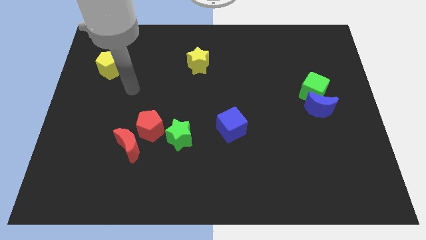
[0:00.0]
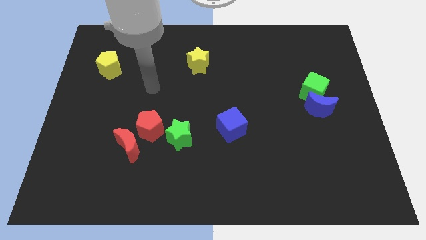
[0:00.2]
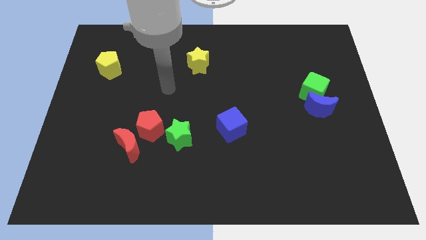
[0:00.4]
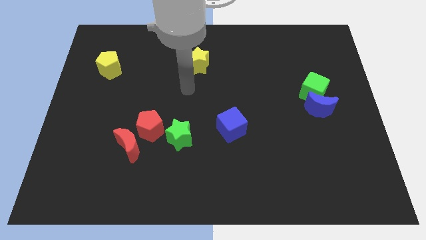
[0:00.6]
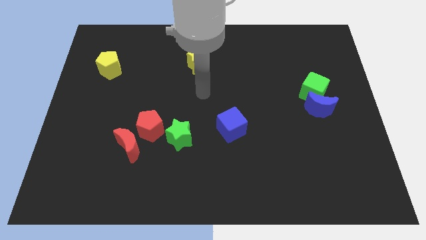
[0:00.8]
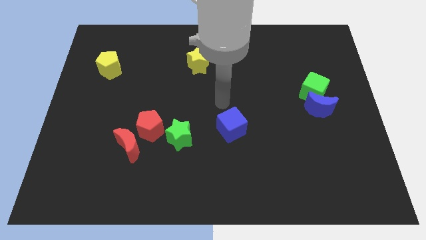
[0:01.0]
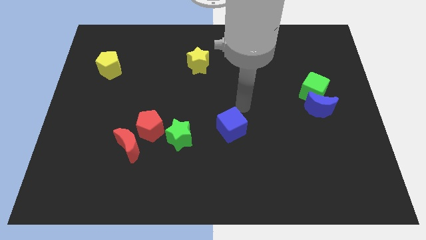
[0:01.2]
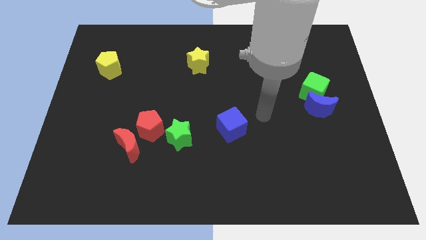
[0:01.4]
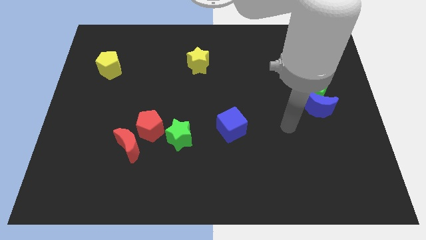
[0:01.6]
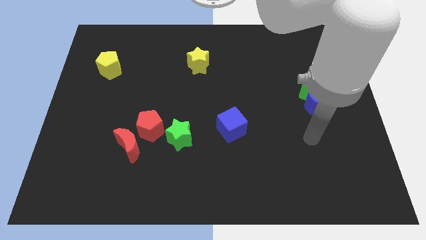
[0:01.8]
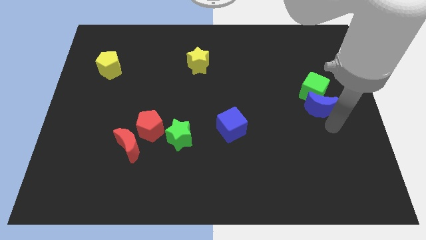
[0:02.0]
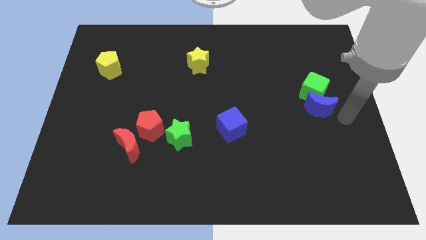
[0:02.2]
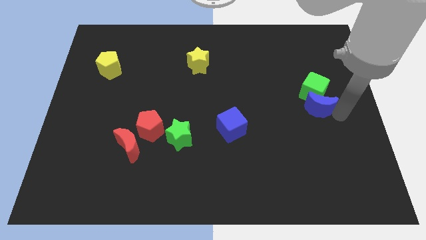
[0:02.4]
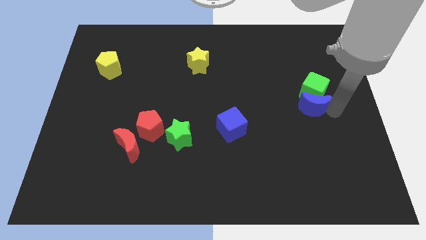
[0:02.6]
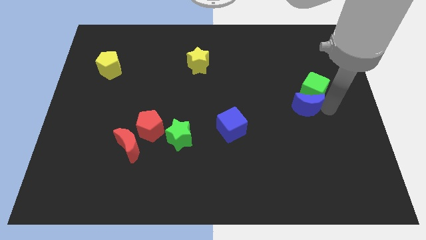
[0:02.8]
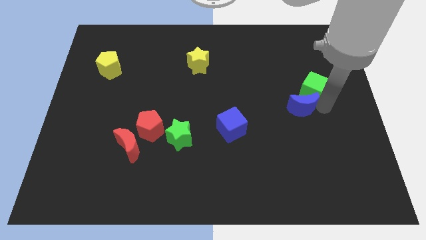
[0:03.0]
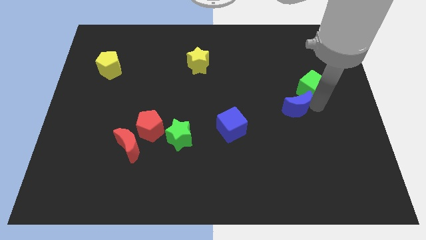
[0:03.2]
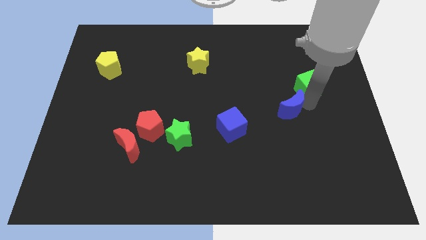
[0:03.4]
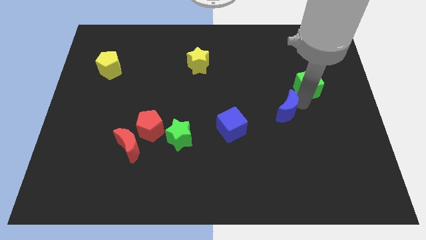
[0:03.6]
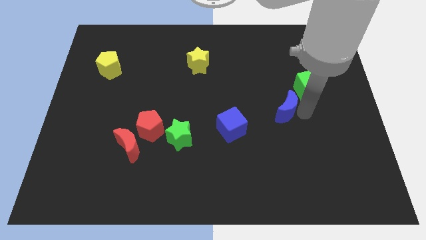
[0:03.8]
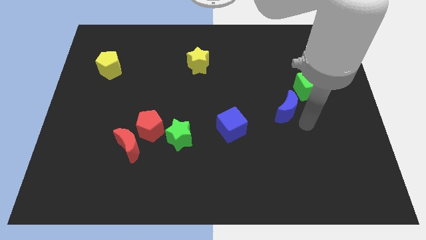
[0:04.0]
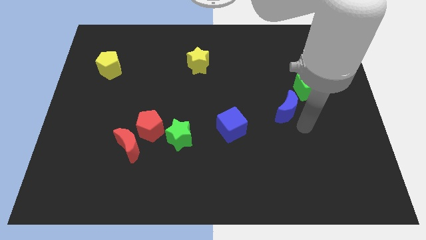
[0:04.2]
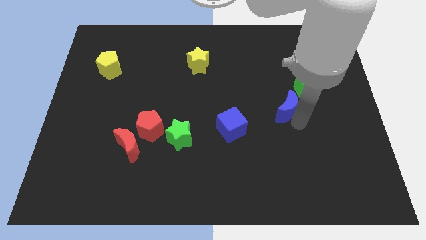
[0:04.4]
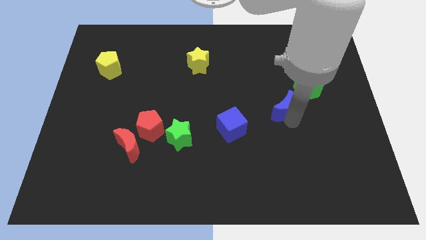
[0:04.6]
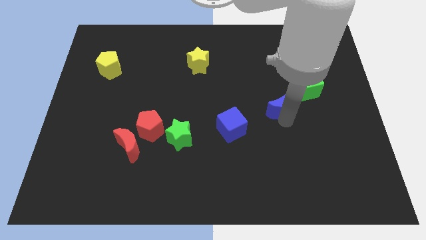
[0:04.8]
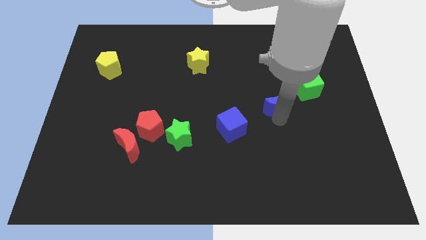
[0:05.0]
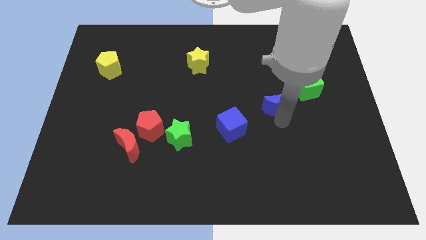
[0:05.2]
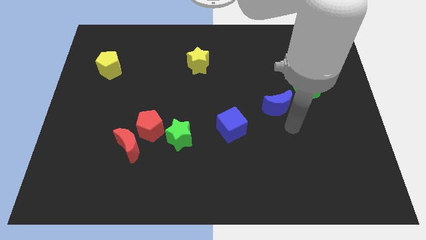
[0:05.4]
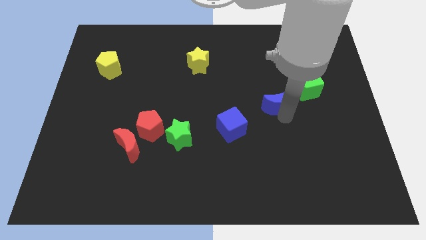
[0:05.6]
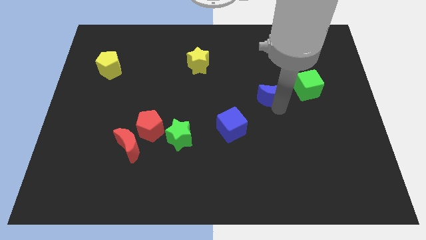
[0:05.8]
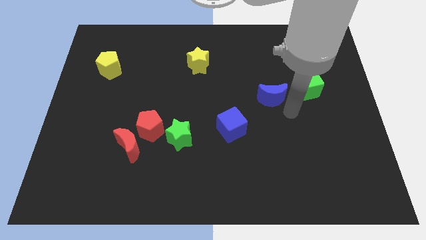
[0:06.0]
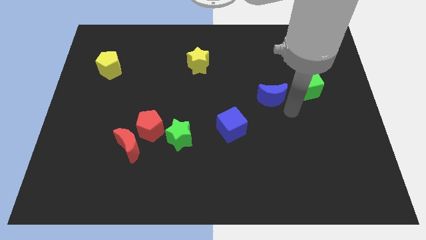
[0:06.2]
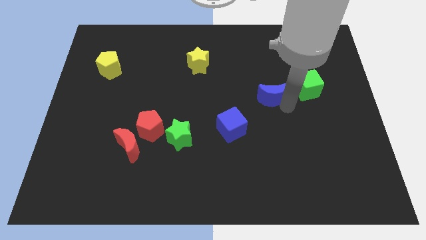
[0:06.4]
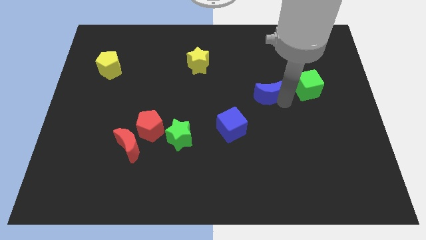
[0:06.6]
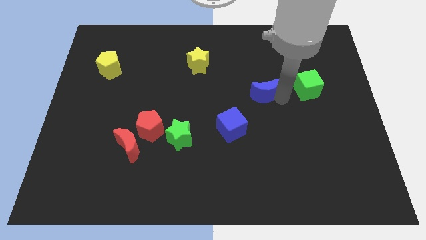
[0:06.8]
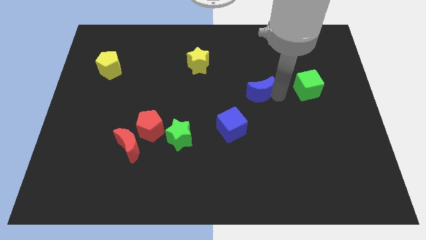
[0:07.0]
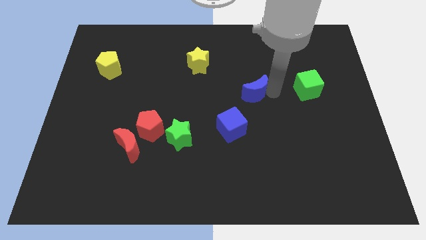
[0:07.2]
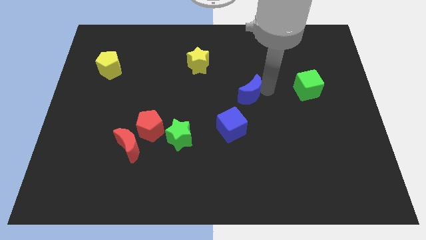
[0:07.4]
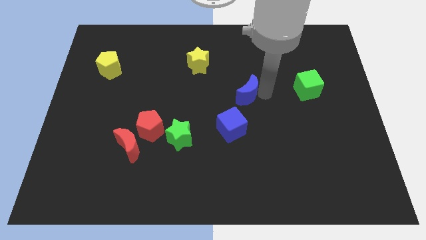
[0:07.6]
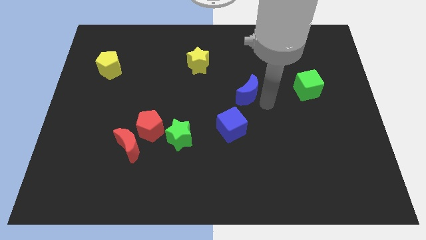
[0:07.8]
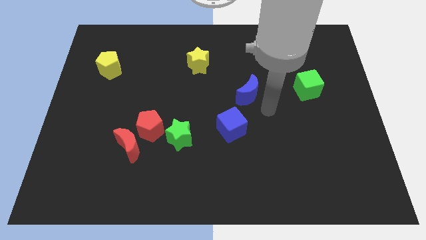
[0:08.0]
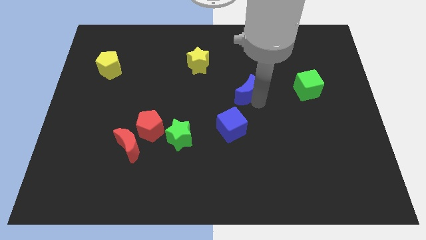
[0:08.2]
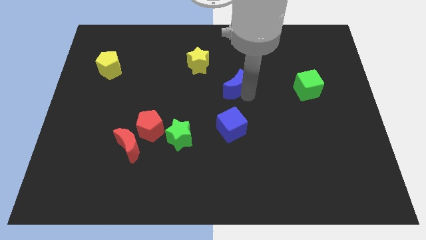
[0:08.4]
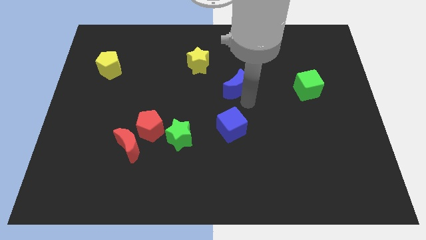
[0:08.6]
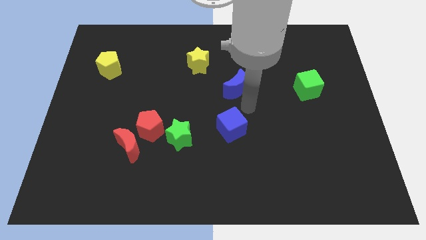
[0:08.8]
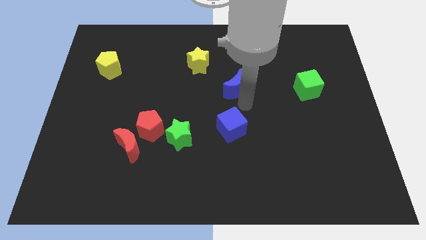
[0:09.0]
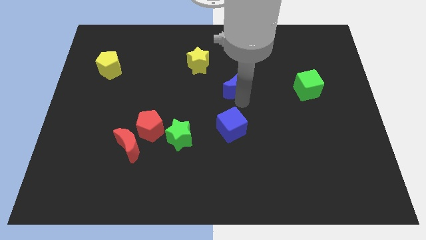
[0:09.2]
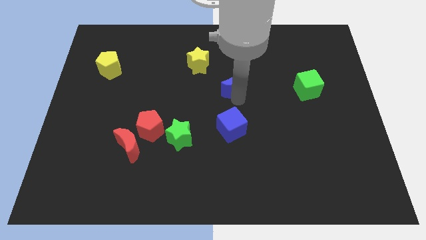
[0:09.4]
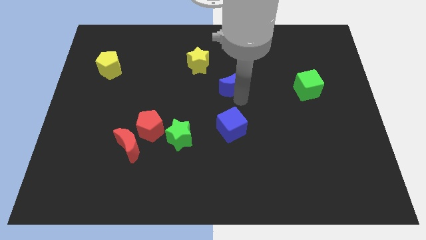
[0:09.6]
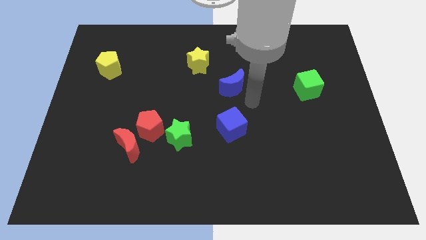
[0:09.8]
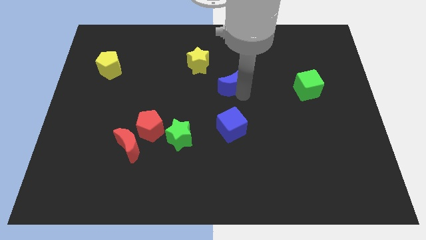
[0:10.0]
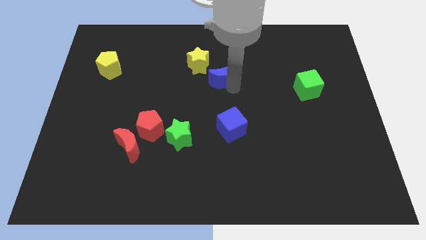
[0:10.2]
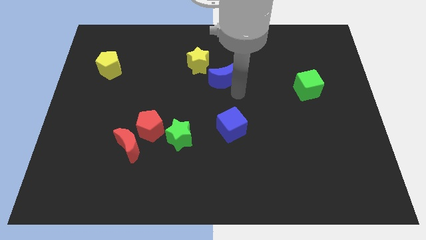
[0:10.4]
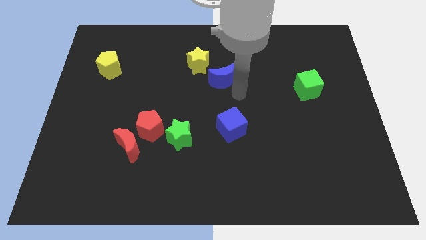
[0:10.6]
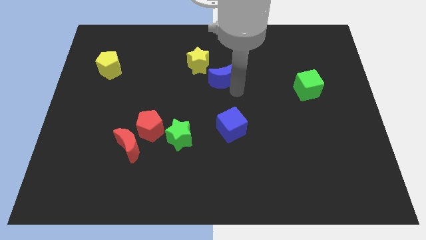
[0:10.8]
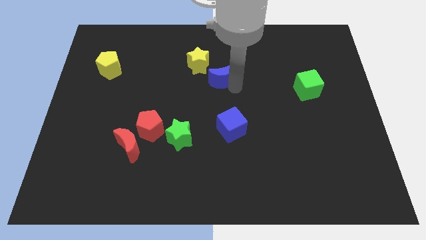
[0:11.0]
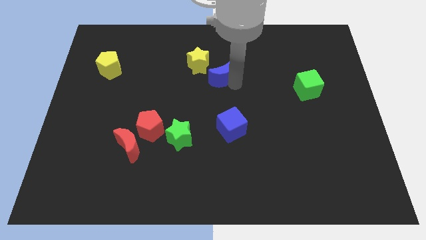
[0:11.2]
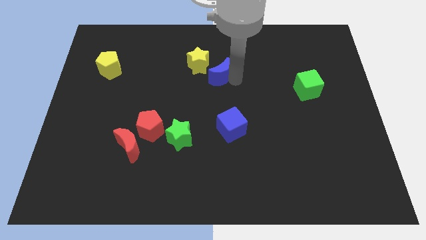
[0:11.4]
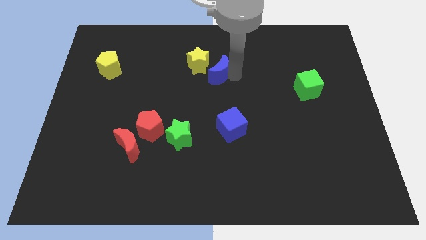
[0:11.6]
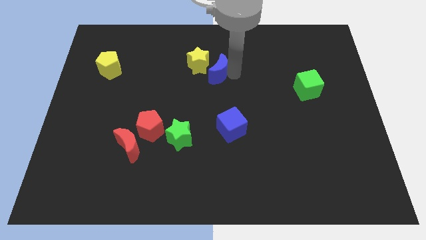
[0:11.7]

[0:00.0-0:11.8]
put the blue moon towards the yellow star

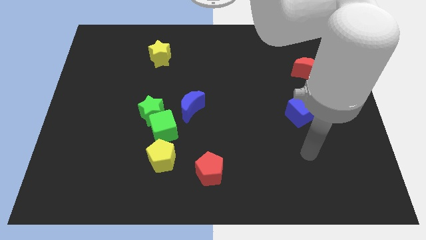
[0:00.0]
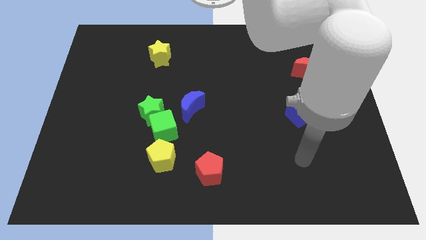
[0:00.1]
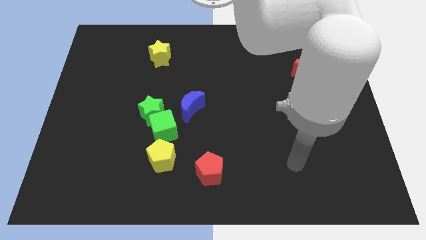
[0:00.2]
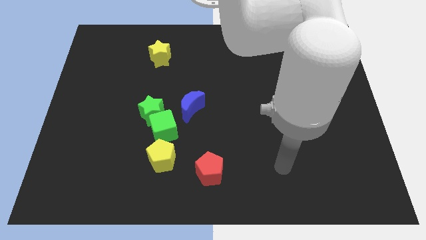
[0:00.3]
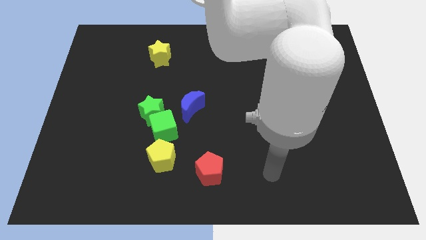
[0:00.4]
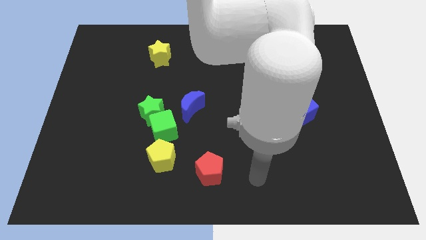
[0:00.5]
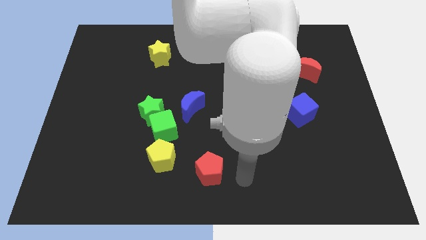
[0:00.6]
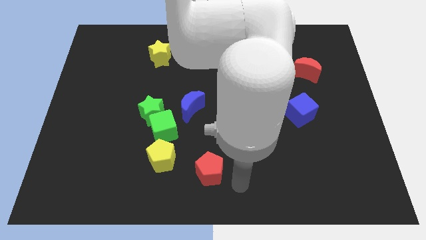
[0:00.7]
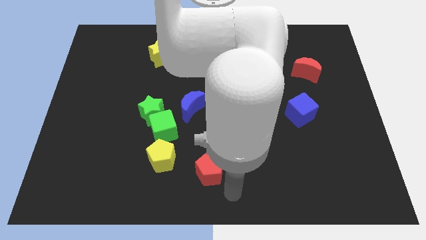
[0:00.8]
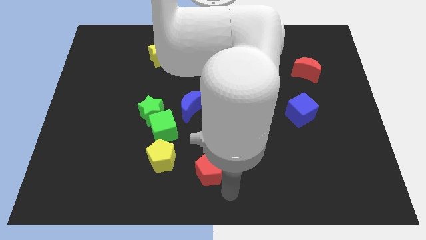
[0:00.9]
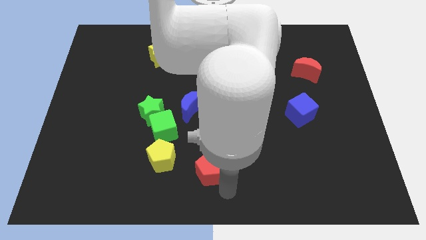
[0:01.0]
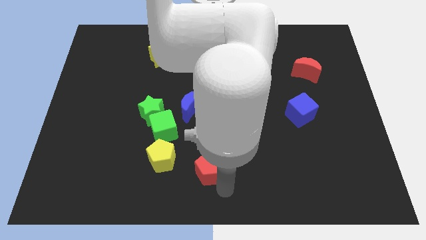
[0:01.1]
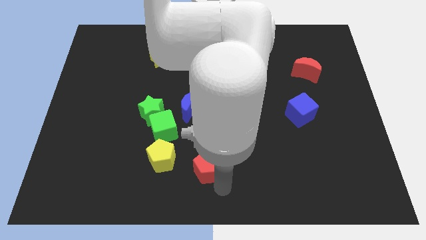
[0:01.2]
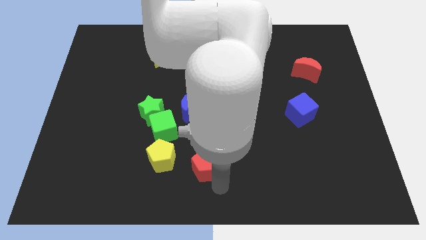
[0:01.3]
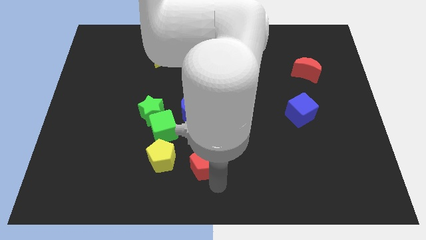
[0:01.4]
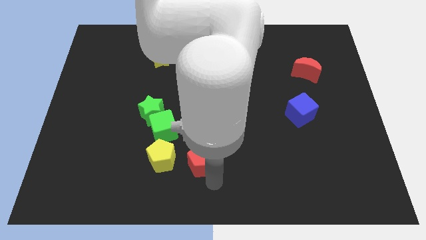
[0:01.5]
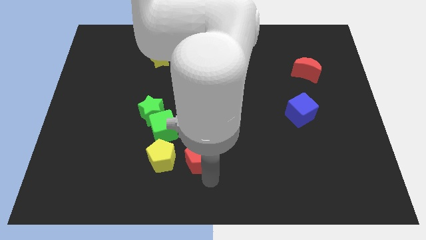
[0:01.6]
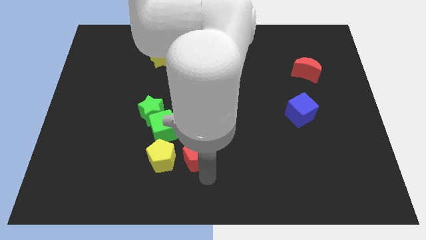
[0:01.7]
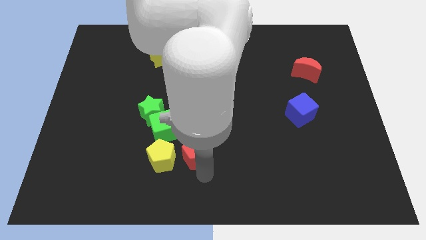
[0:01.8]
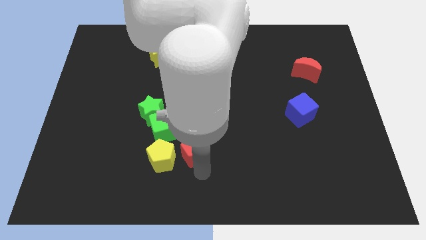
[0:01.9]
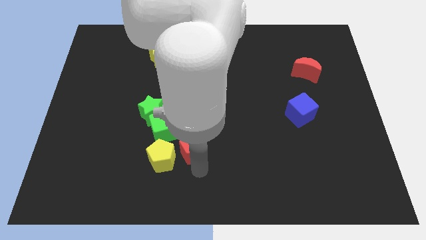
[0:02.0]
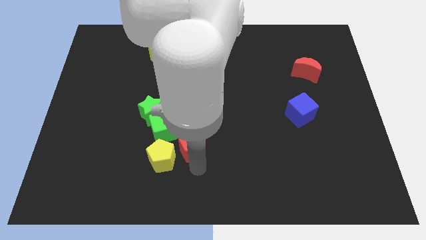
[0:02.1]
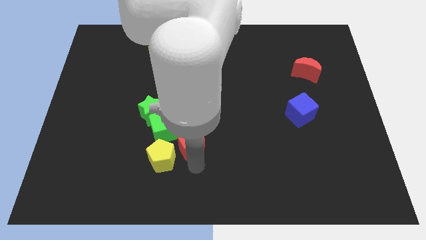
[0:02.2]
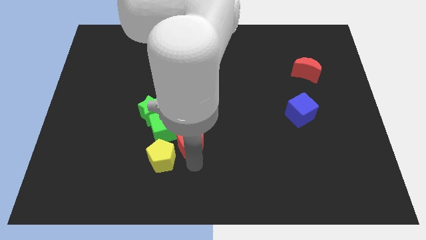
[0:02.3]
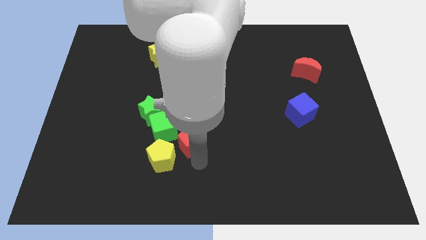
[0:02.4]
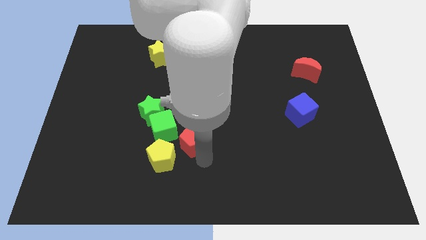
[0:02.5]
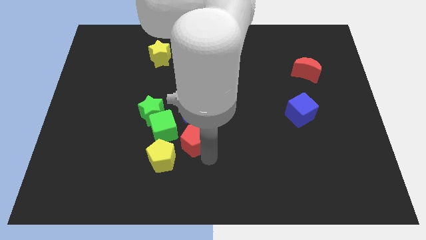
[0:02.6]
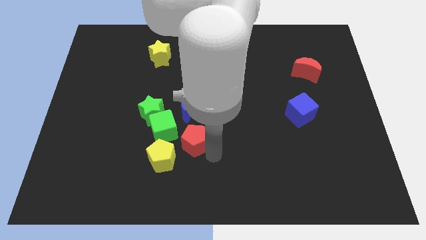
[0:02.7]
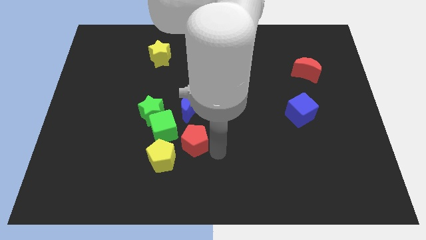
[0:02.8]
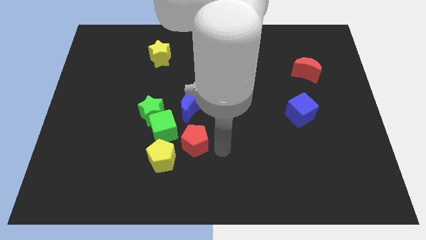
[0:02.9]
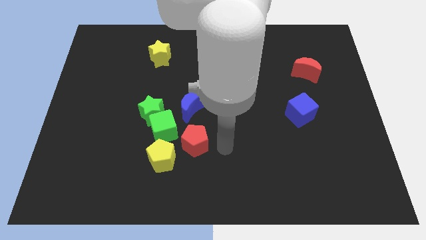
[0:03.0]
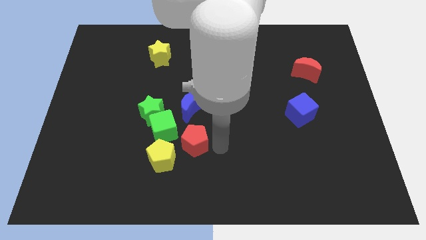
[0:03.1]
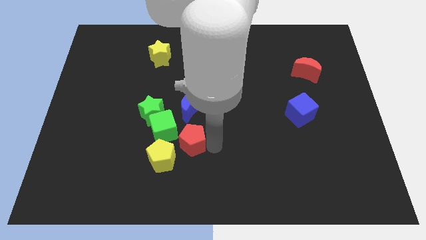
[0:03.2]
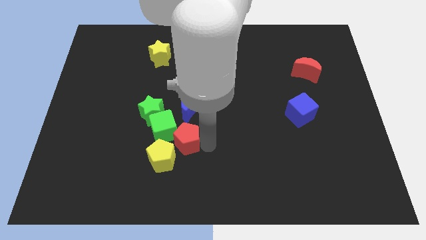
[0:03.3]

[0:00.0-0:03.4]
slide the red pentagon to the green cube
